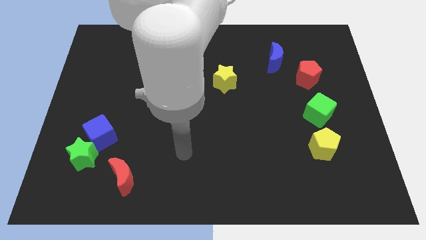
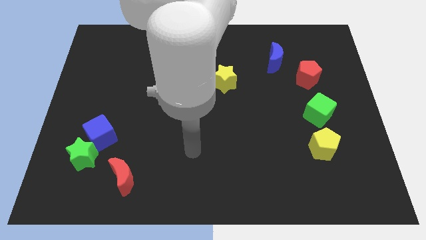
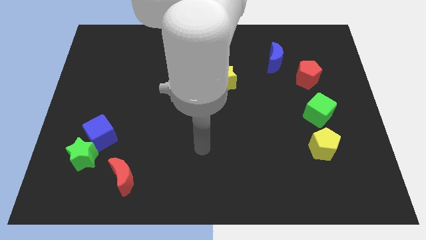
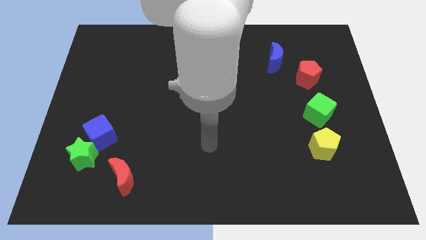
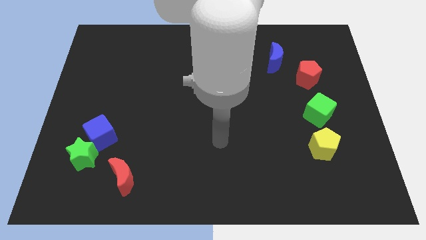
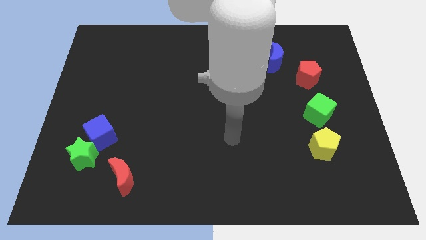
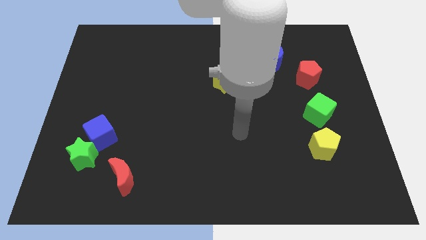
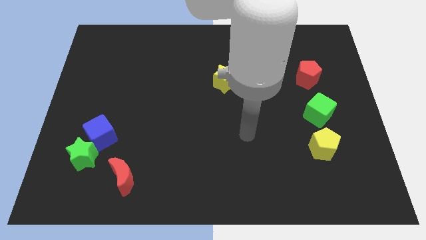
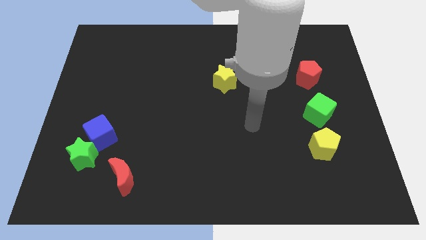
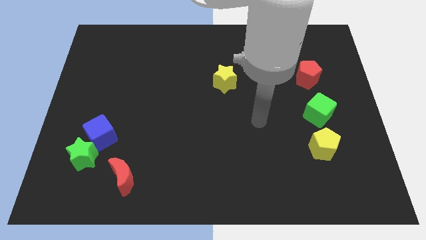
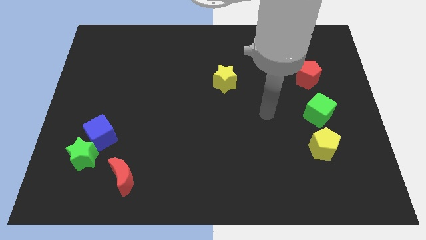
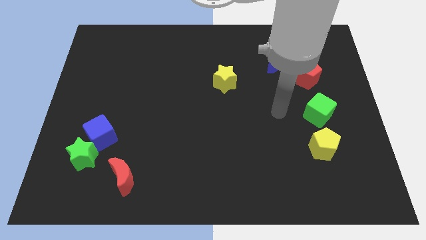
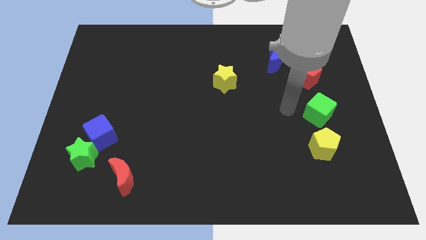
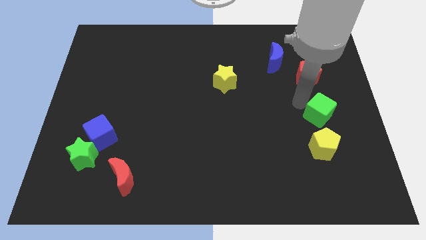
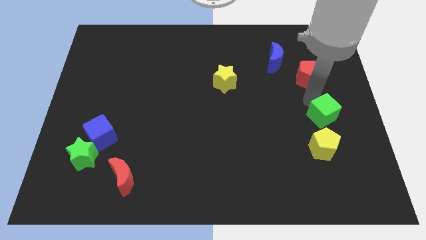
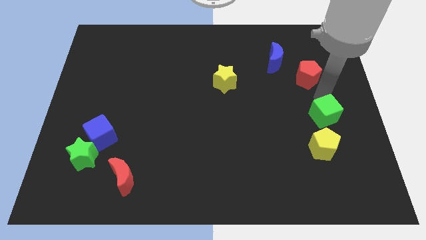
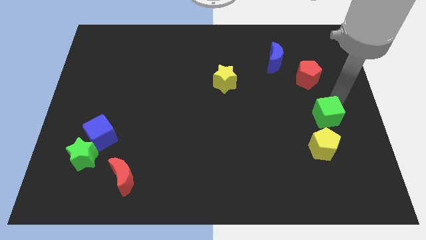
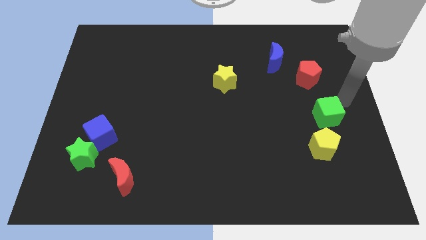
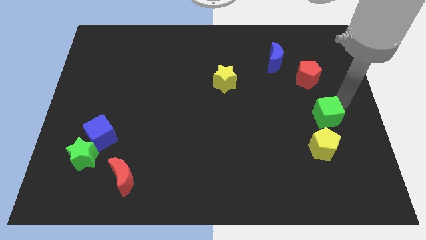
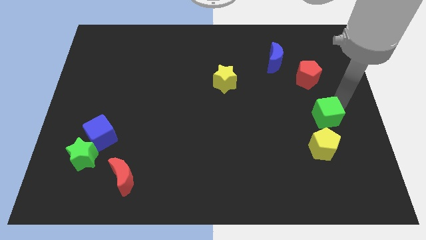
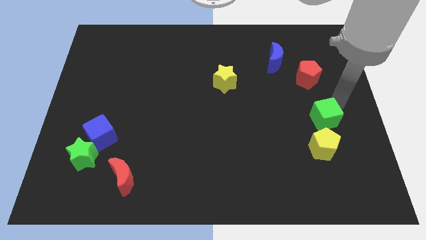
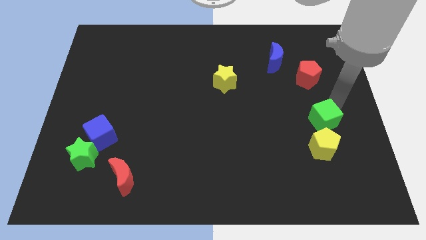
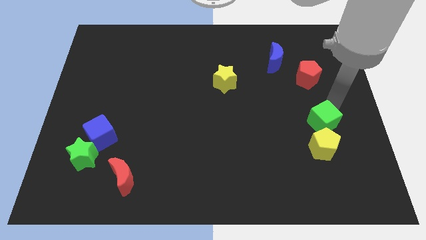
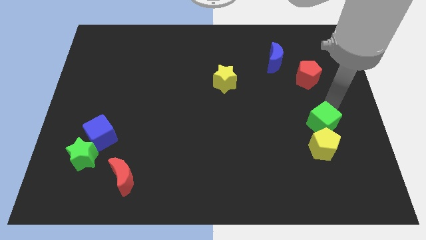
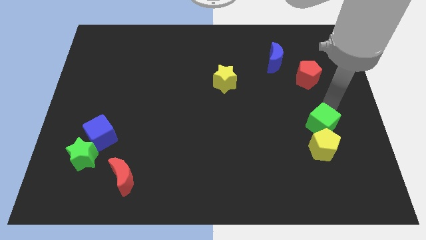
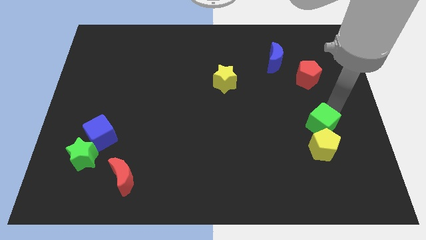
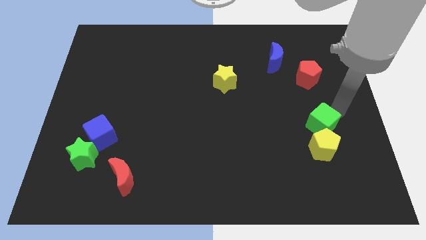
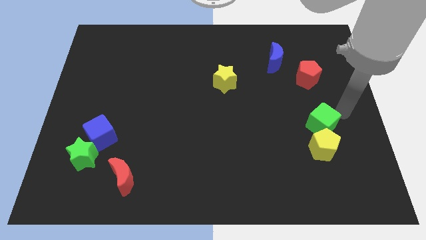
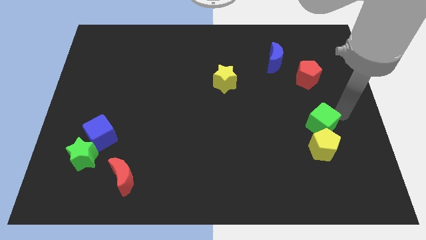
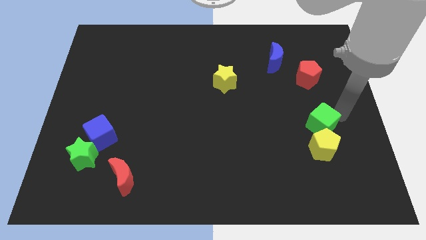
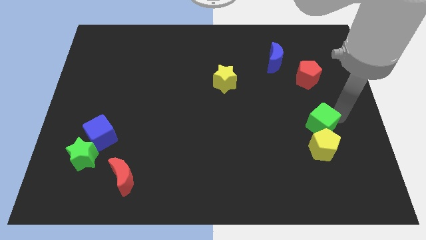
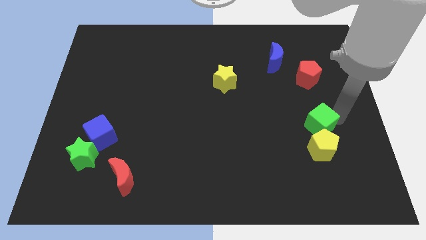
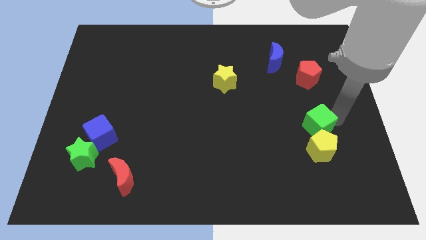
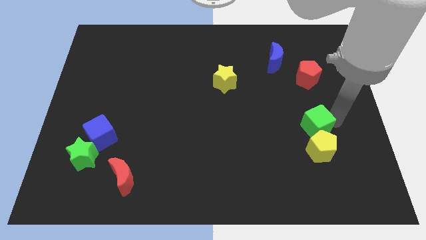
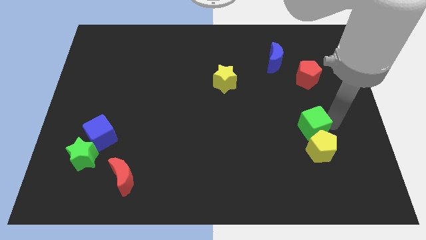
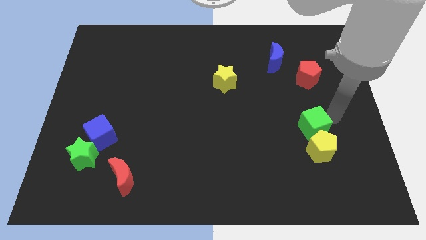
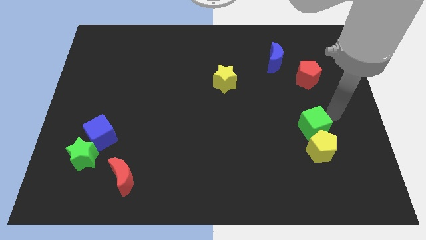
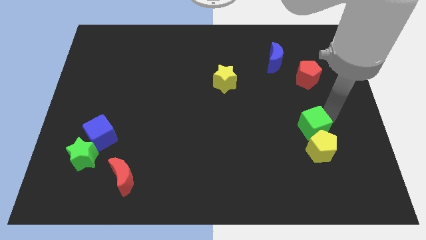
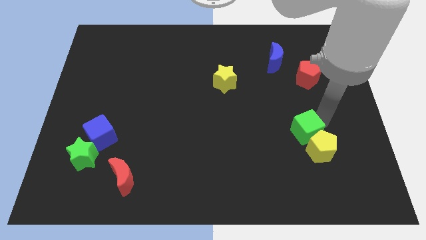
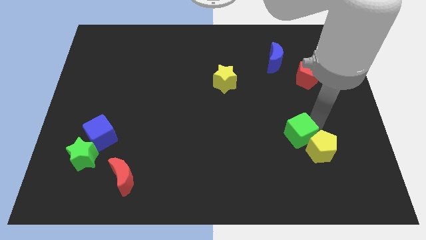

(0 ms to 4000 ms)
push the green cube a little down and to the left

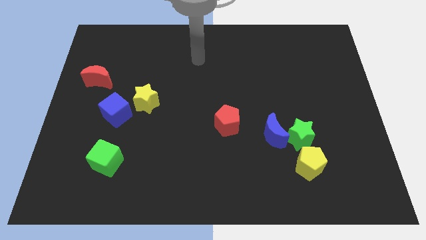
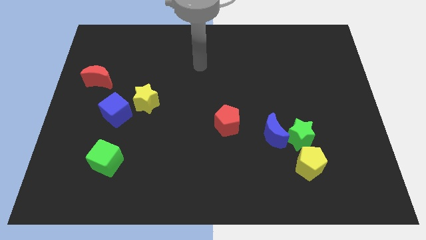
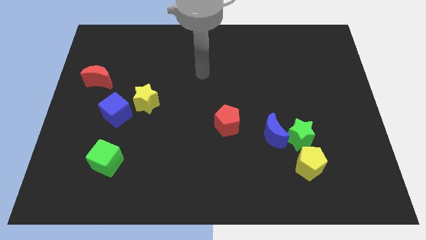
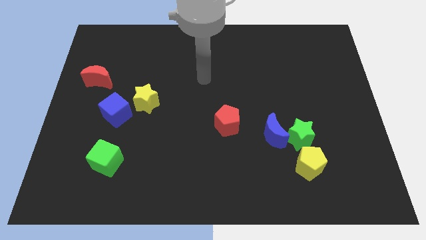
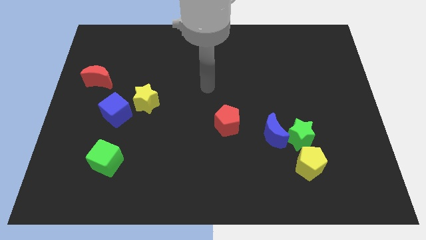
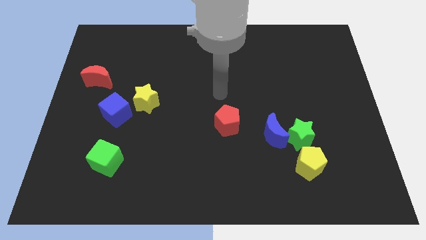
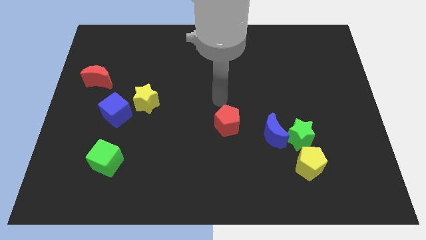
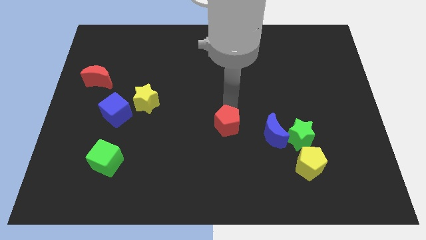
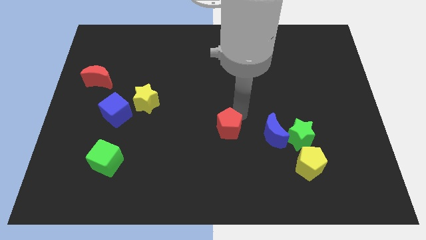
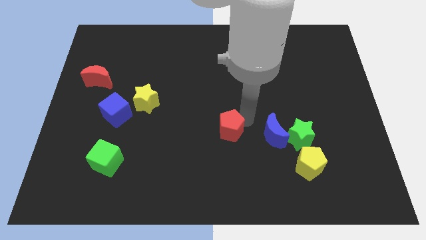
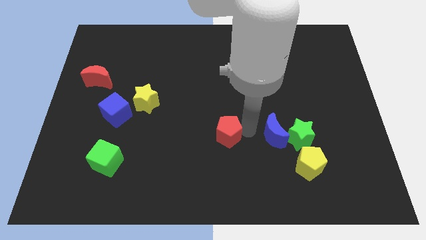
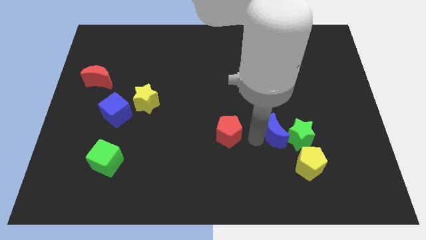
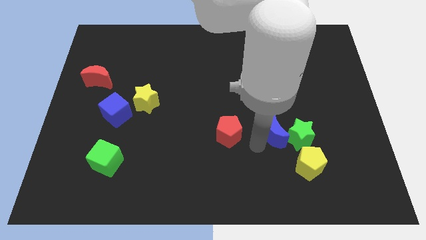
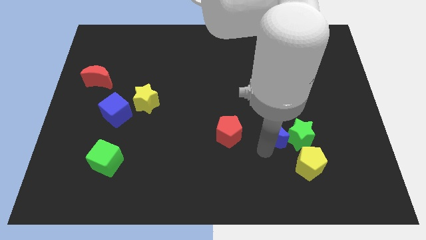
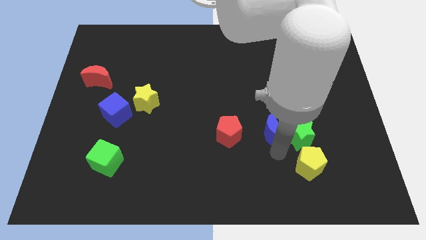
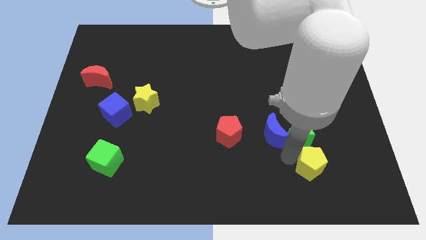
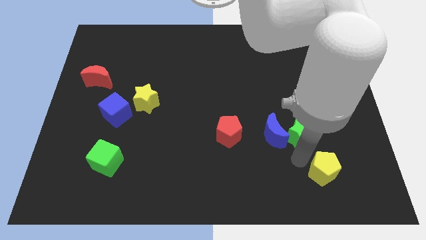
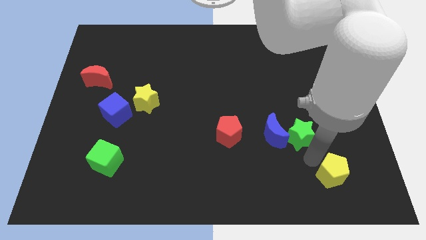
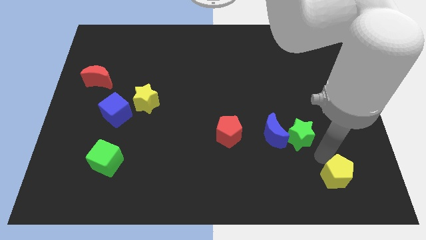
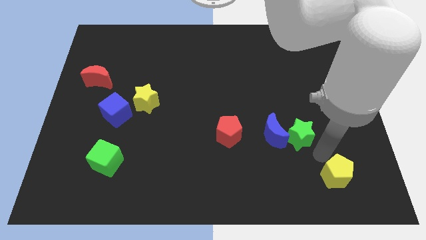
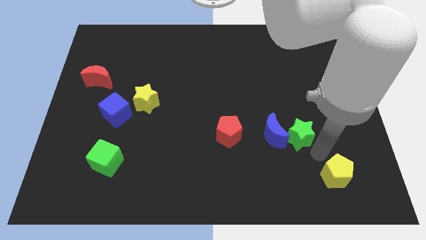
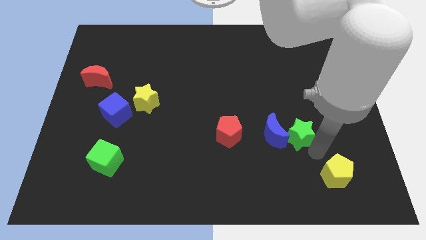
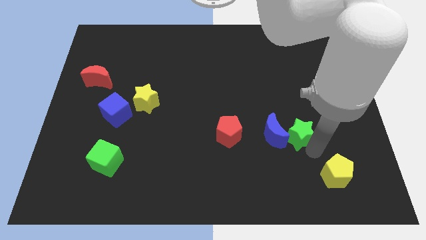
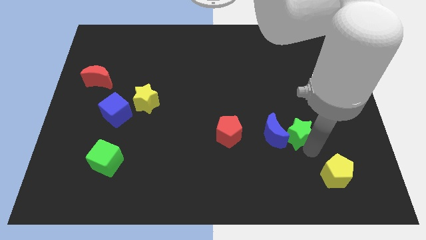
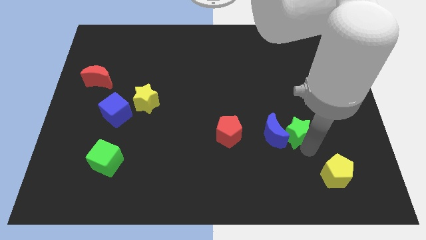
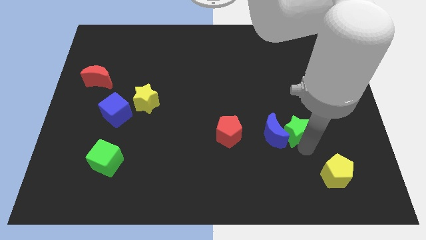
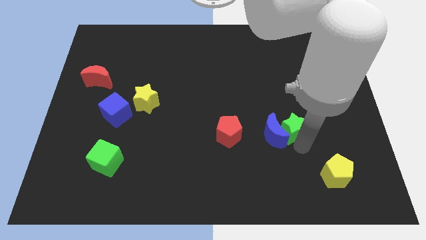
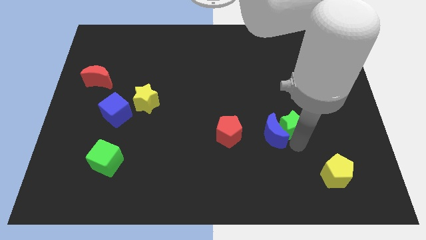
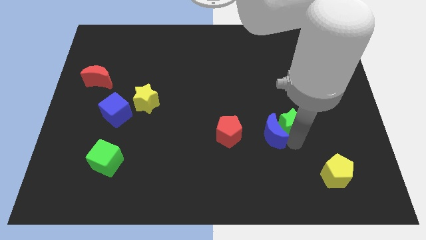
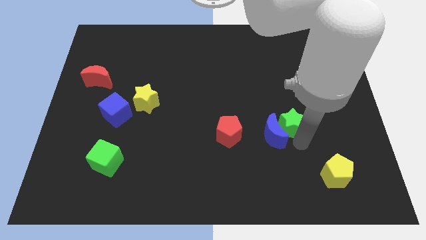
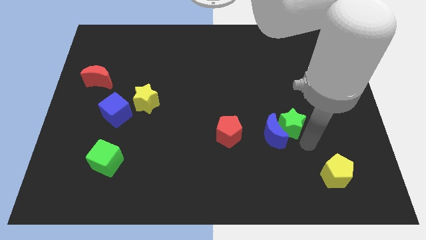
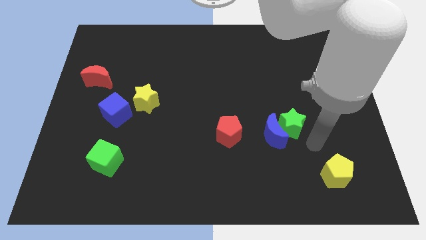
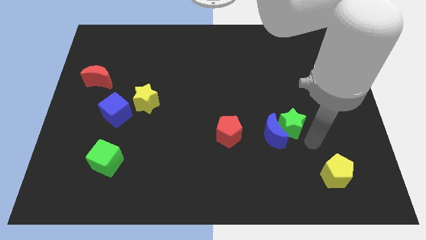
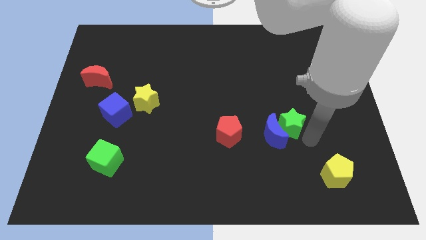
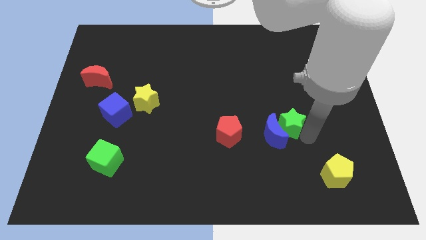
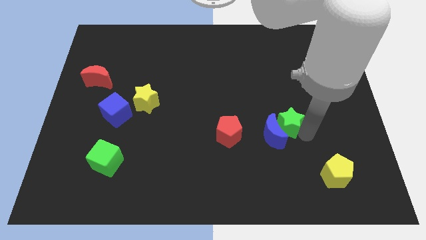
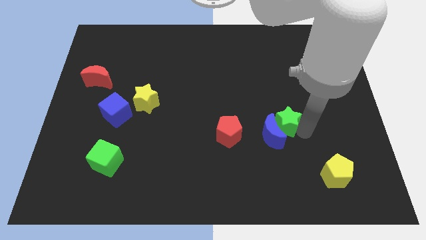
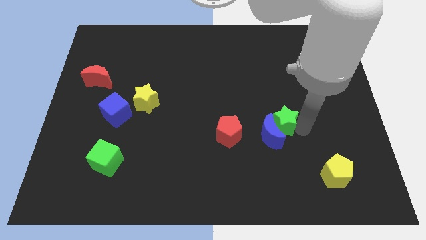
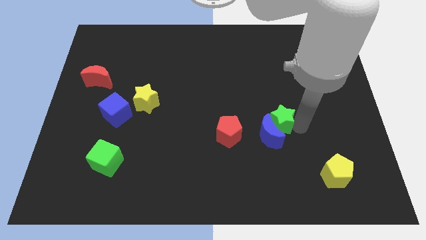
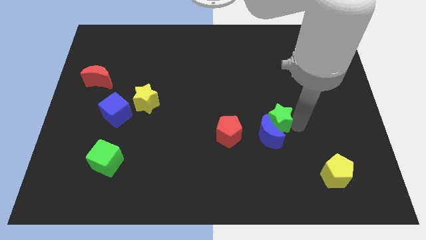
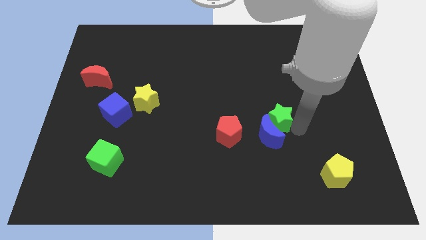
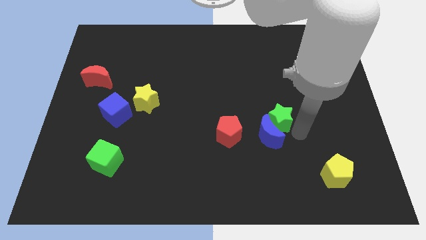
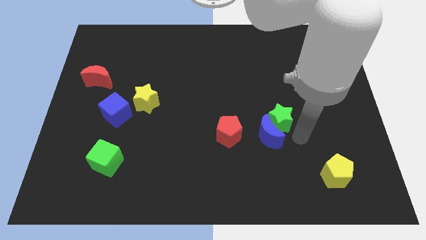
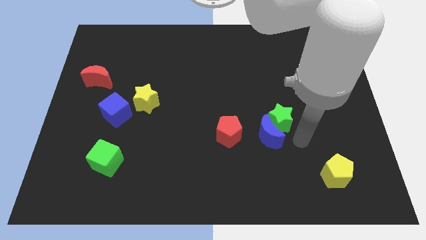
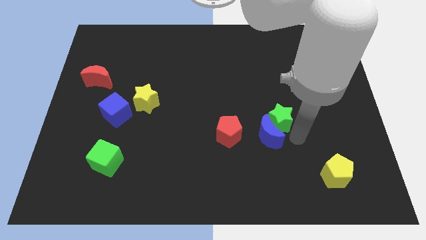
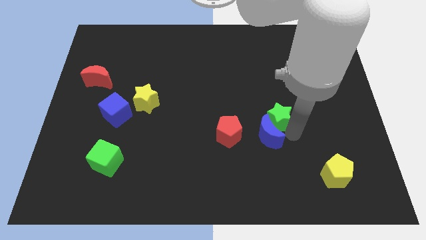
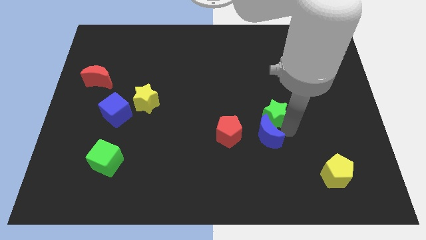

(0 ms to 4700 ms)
slide the green star up and then to the left a little bit
